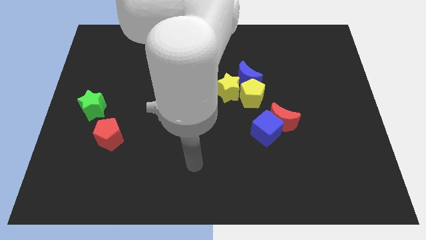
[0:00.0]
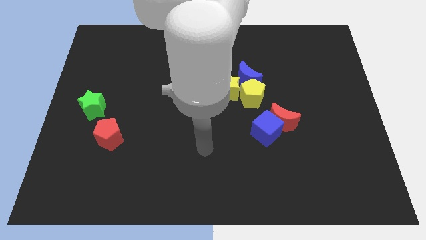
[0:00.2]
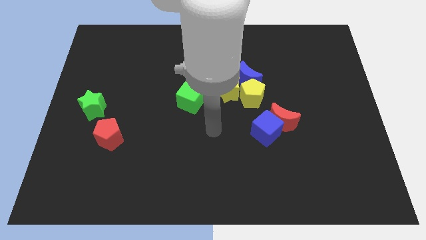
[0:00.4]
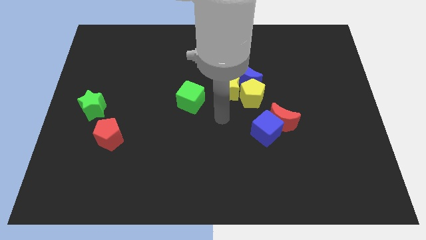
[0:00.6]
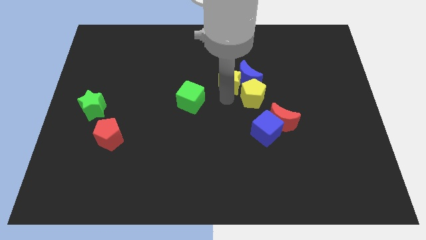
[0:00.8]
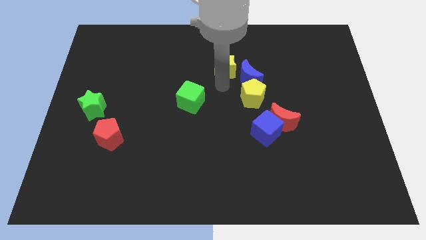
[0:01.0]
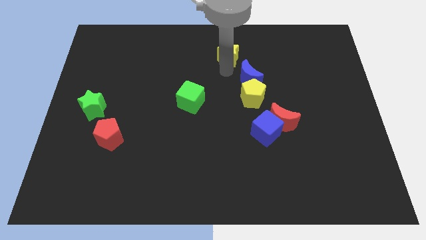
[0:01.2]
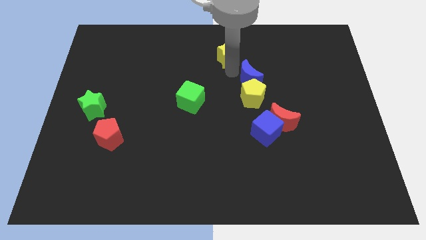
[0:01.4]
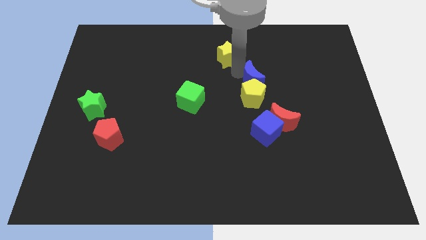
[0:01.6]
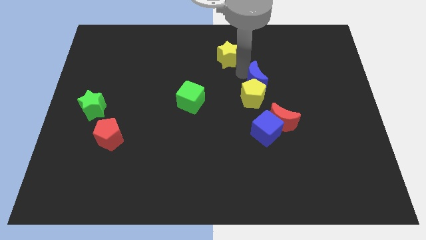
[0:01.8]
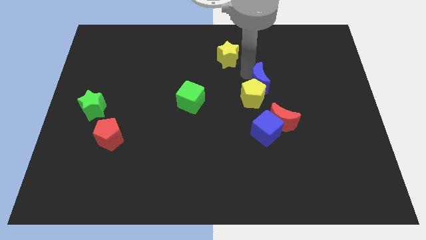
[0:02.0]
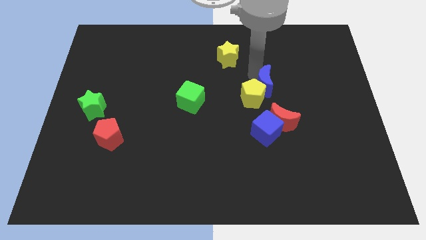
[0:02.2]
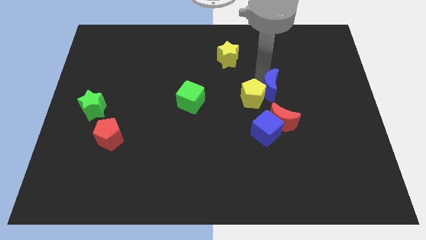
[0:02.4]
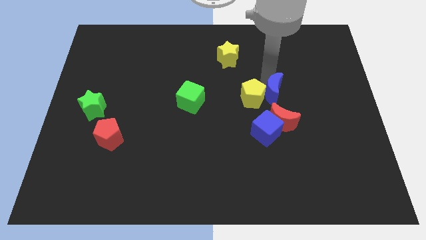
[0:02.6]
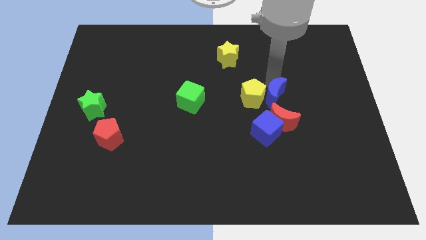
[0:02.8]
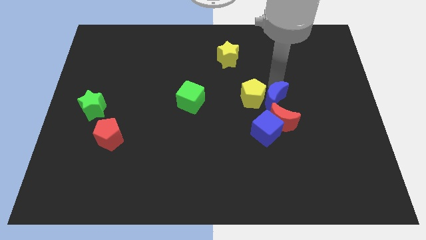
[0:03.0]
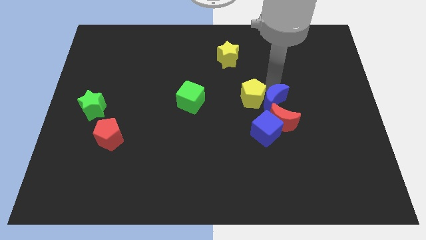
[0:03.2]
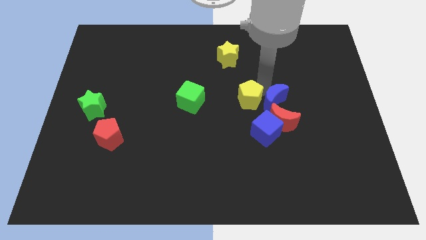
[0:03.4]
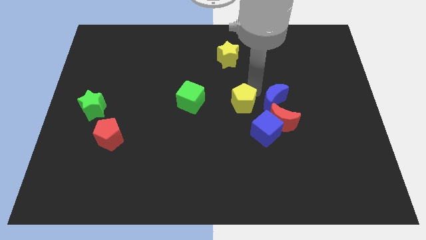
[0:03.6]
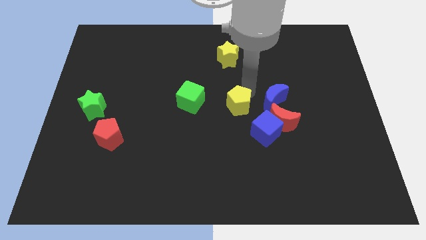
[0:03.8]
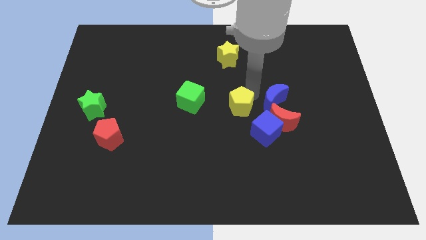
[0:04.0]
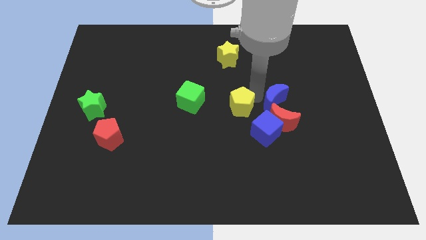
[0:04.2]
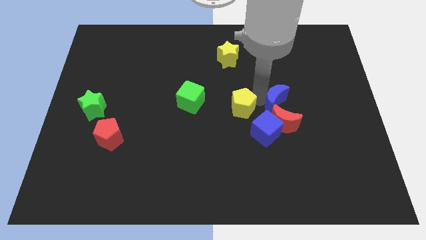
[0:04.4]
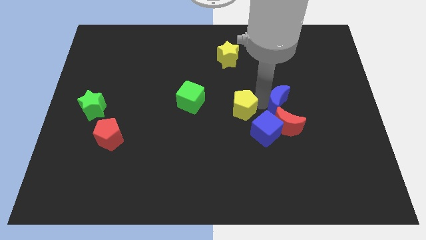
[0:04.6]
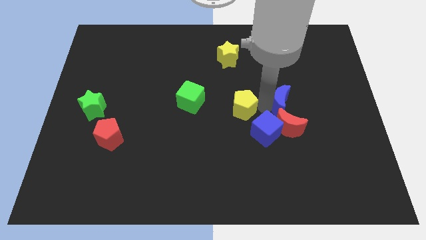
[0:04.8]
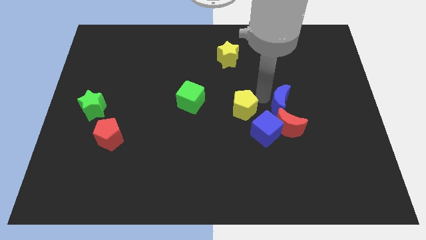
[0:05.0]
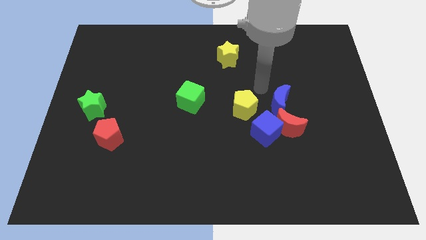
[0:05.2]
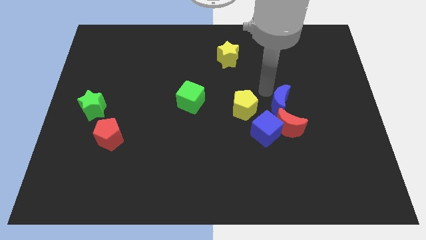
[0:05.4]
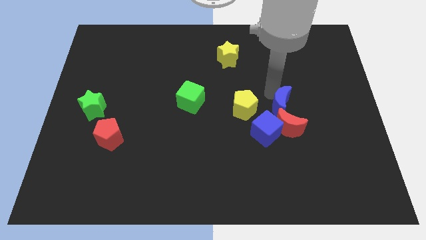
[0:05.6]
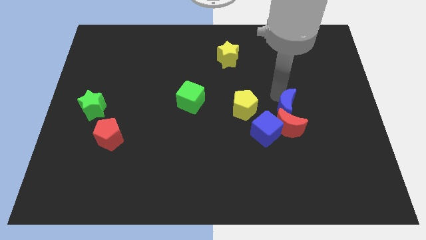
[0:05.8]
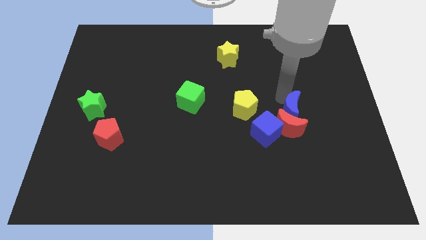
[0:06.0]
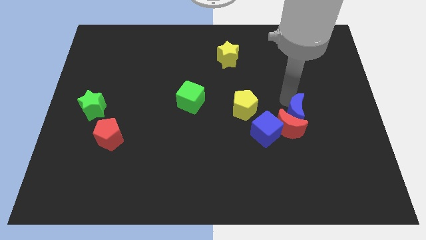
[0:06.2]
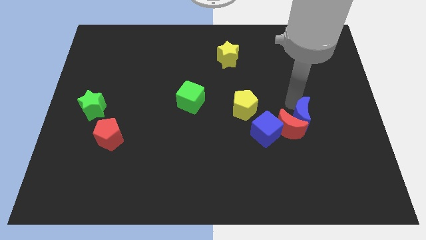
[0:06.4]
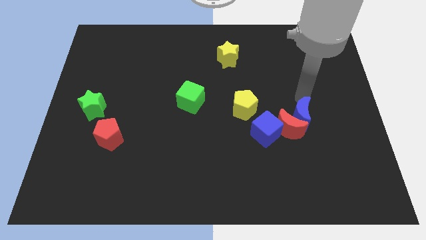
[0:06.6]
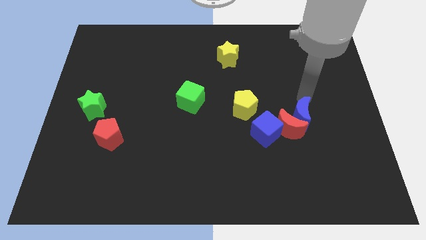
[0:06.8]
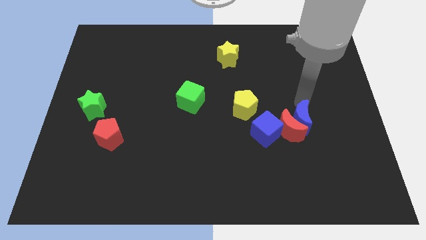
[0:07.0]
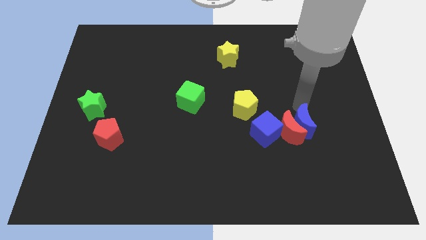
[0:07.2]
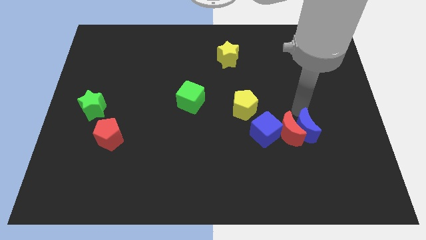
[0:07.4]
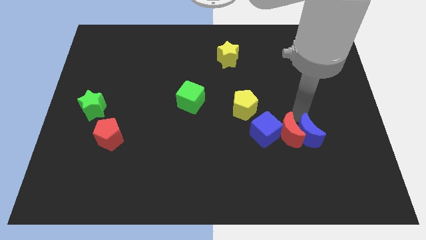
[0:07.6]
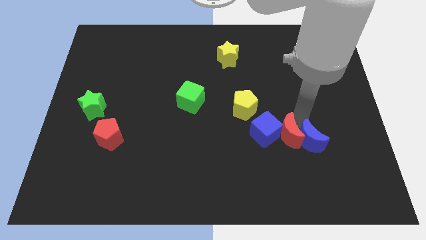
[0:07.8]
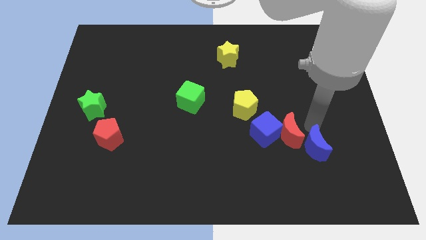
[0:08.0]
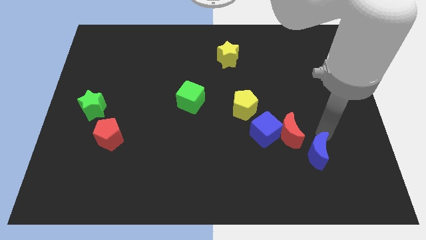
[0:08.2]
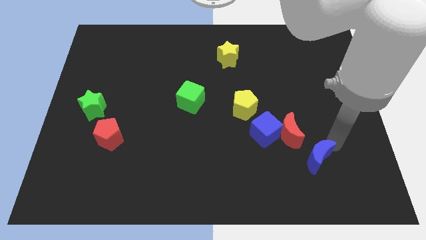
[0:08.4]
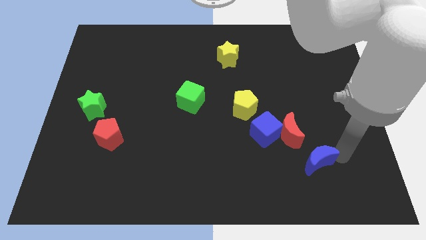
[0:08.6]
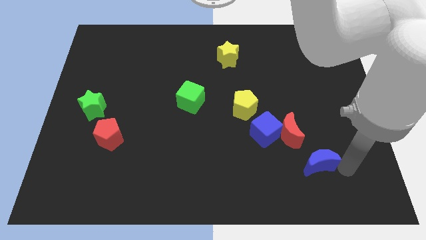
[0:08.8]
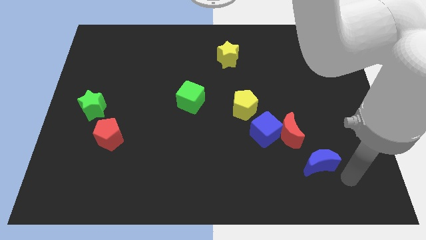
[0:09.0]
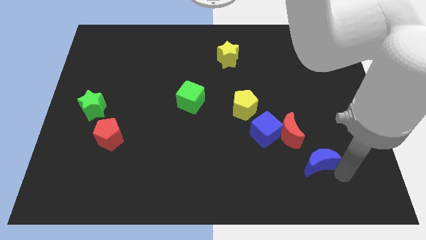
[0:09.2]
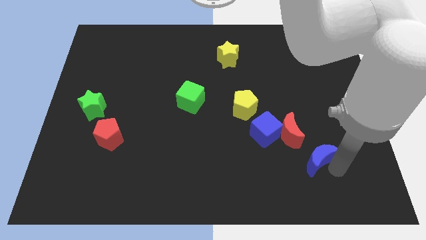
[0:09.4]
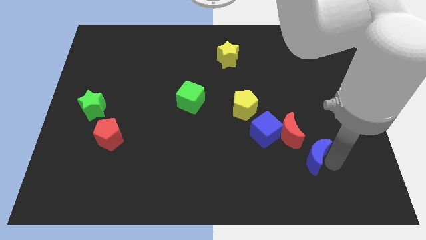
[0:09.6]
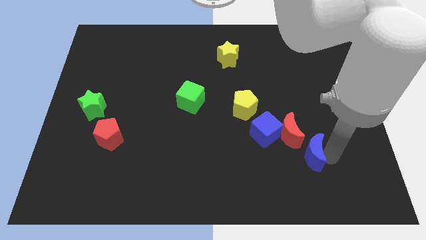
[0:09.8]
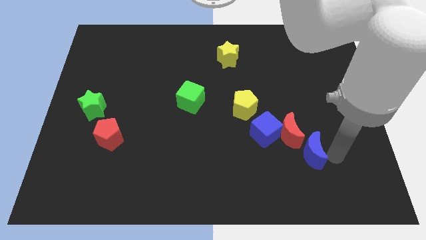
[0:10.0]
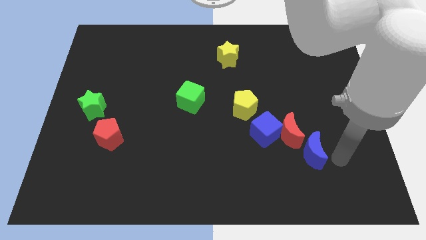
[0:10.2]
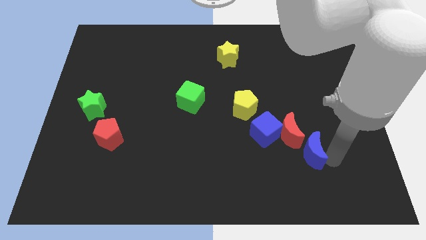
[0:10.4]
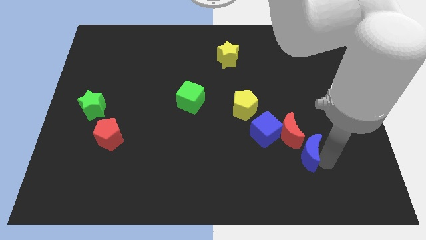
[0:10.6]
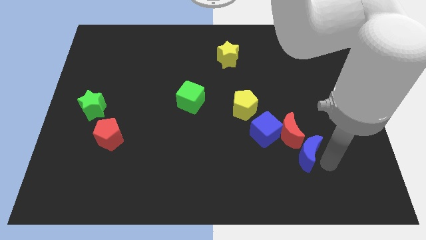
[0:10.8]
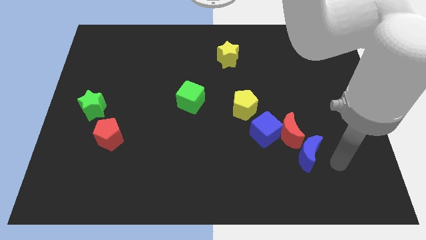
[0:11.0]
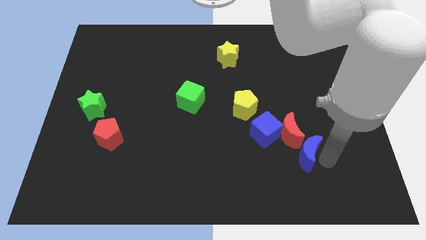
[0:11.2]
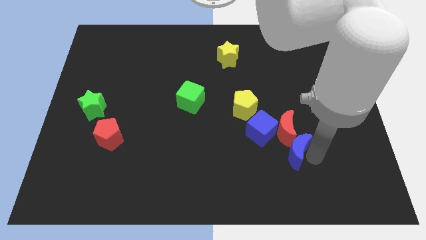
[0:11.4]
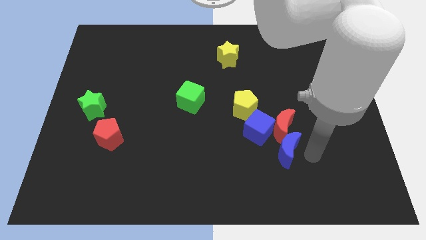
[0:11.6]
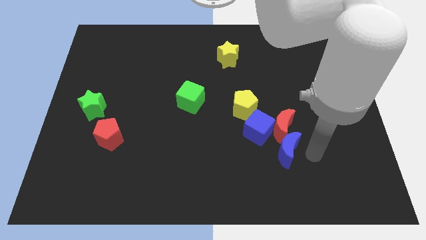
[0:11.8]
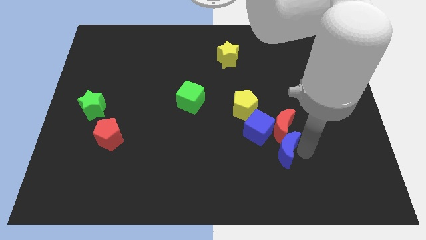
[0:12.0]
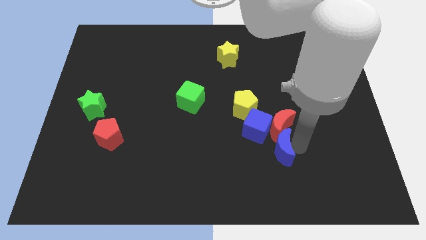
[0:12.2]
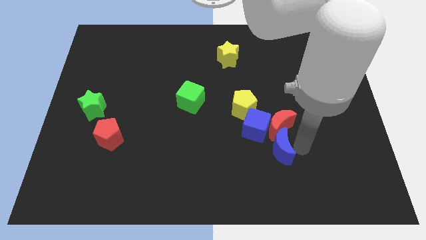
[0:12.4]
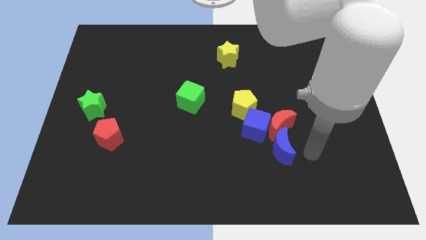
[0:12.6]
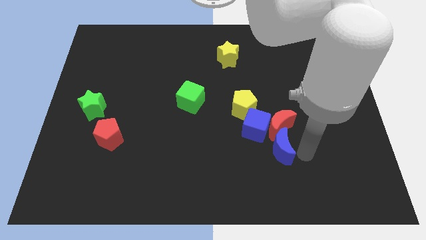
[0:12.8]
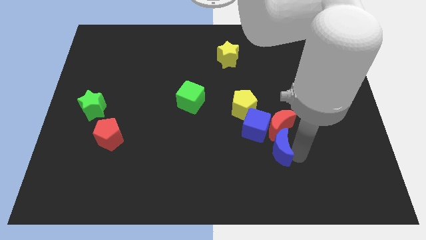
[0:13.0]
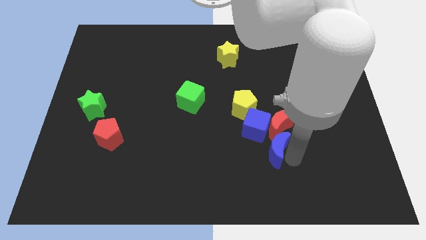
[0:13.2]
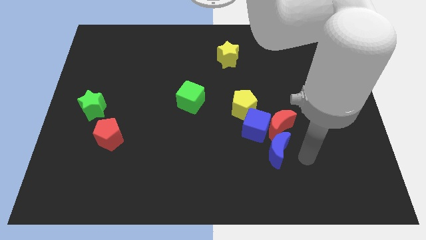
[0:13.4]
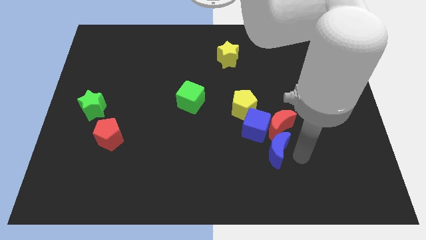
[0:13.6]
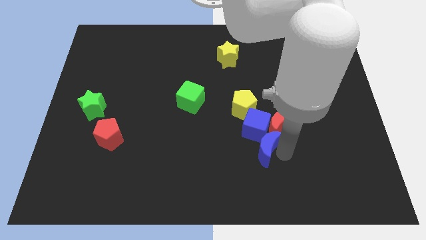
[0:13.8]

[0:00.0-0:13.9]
push the blue moon to the bottom side of the yellow pentagon
